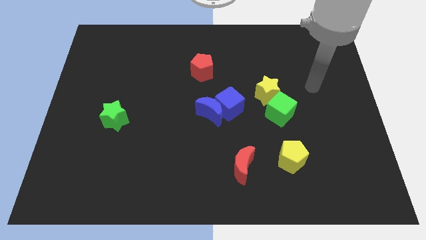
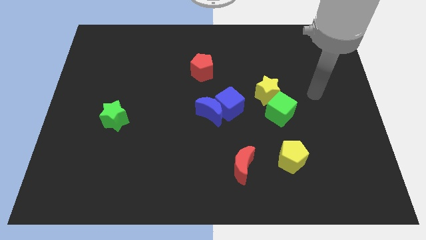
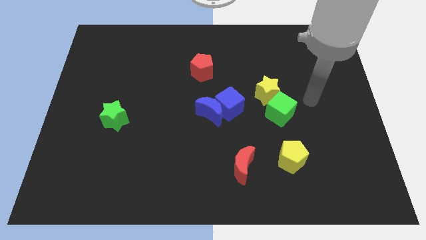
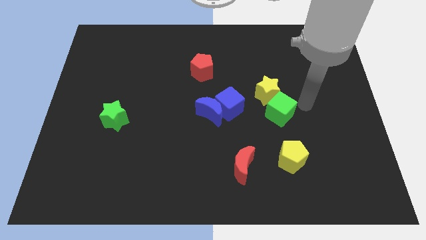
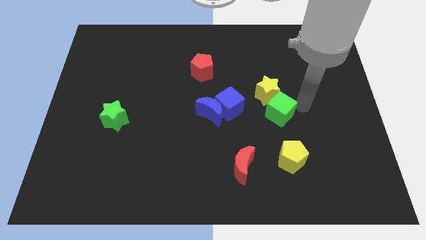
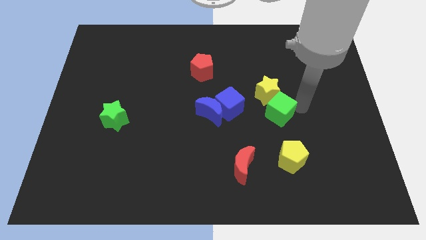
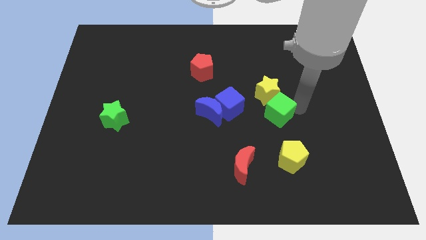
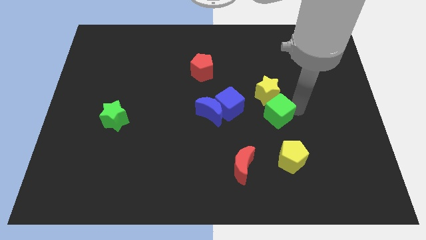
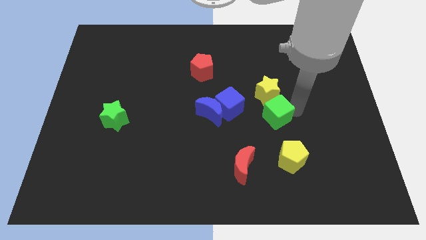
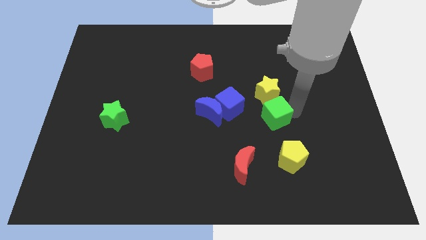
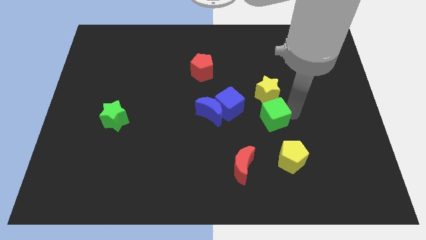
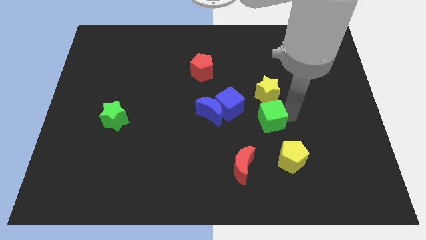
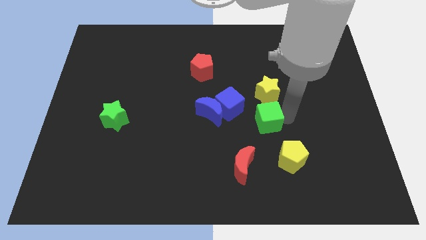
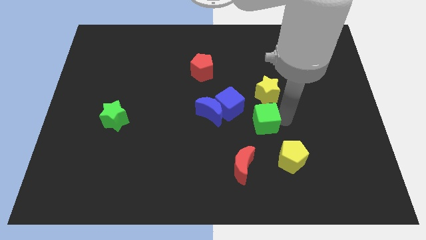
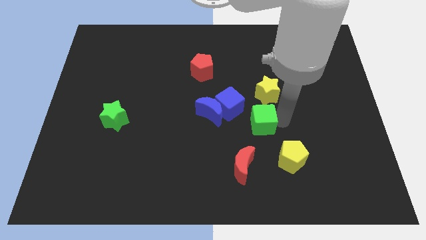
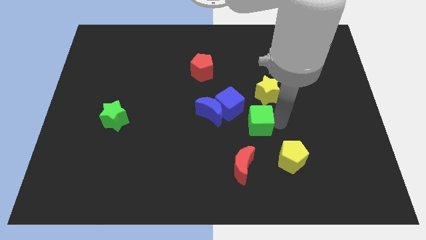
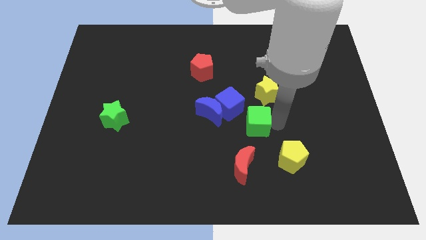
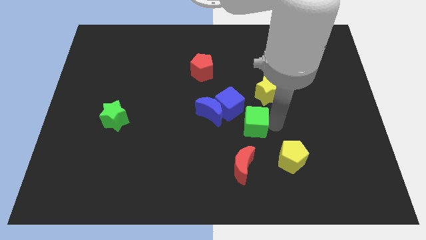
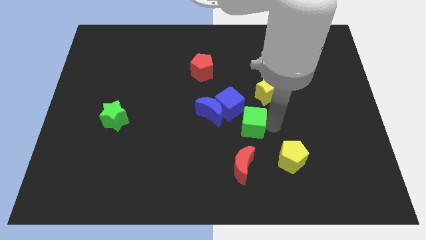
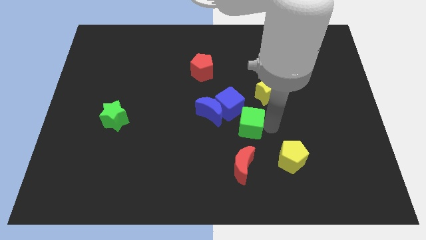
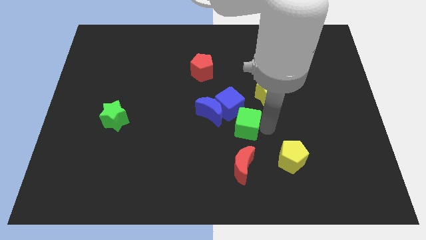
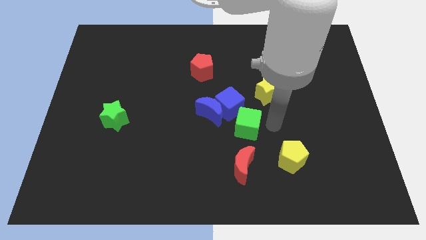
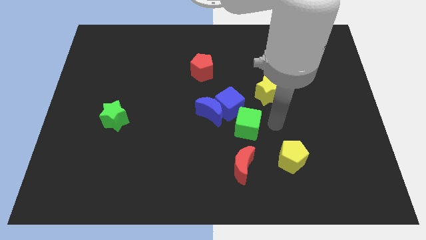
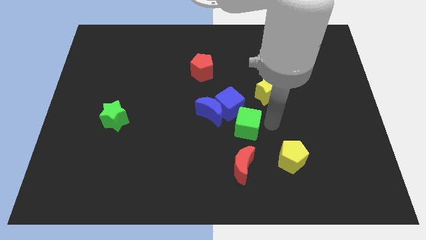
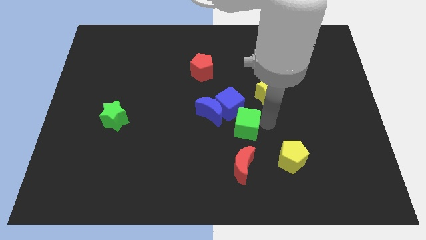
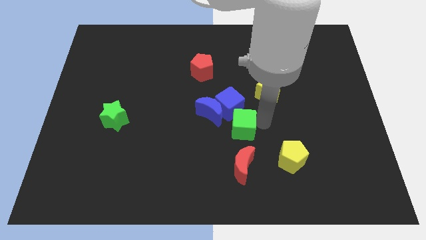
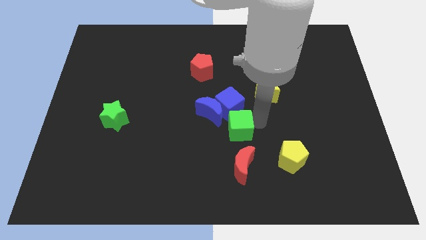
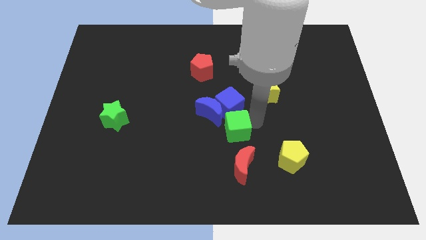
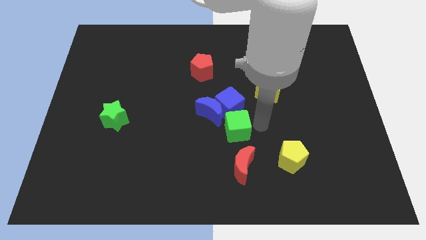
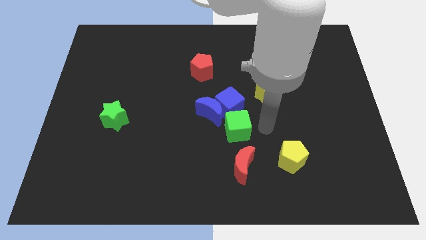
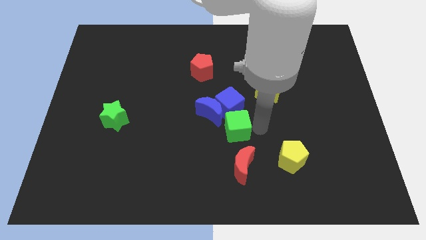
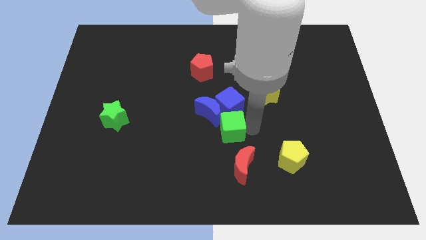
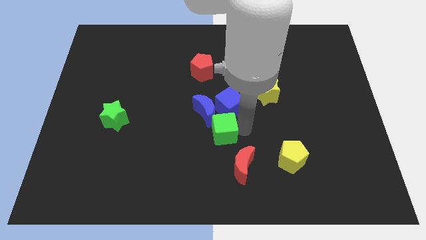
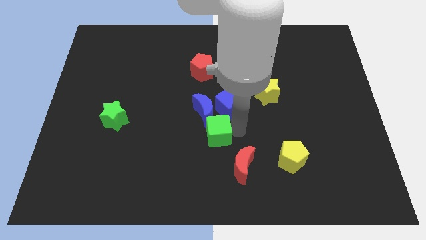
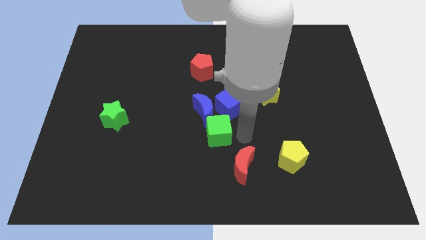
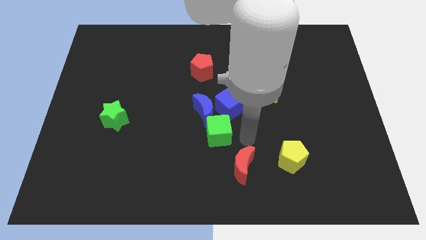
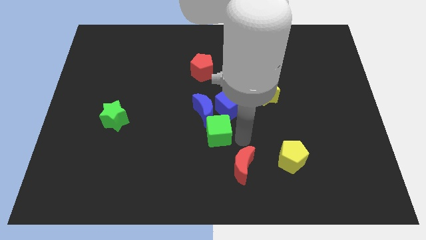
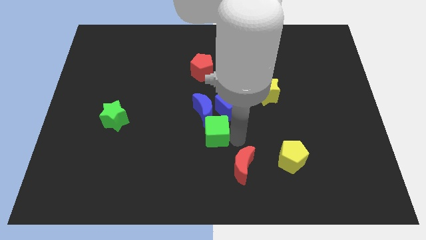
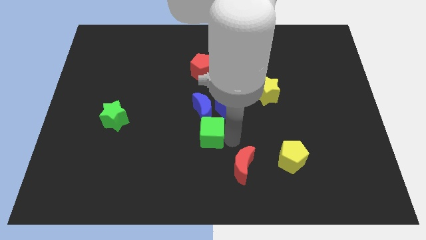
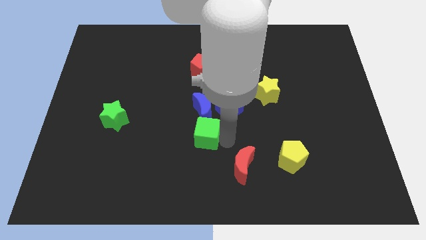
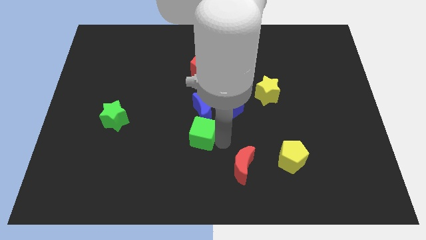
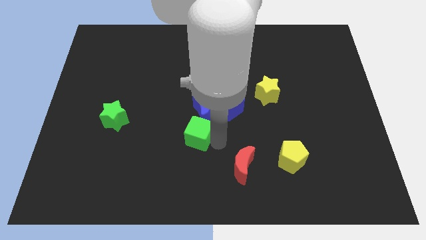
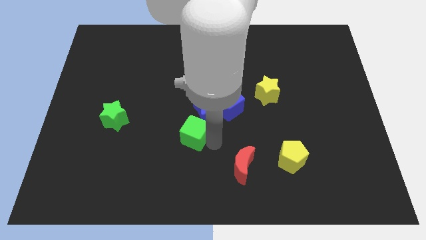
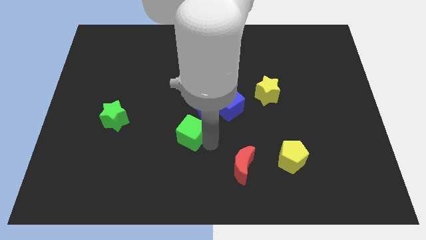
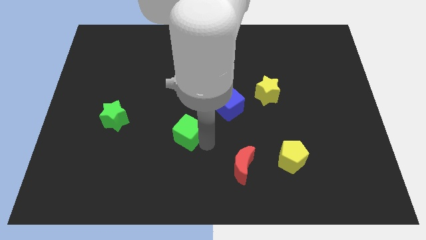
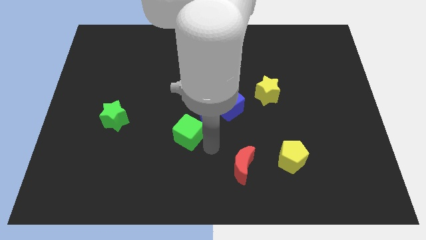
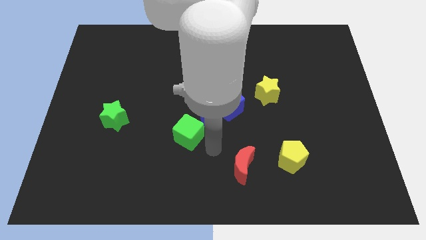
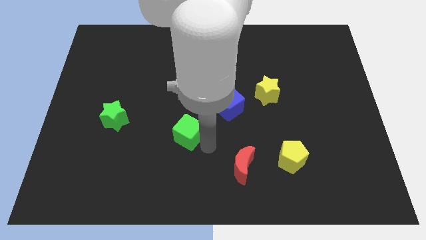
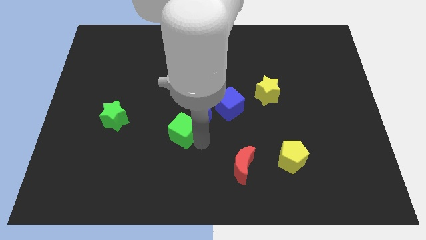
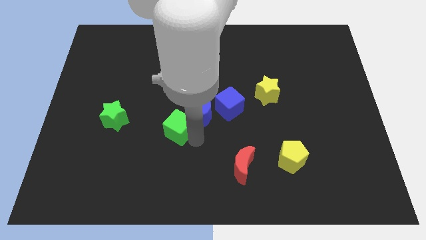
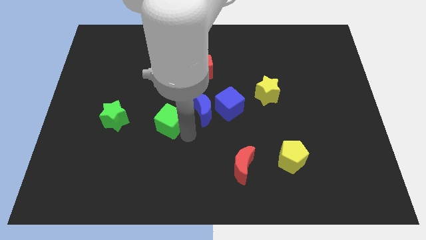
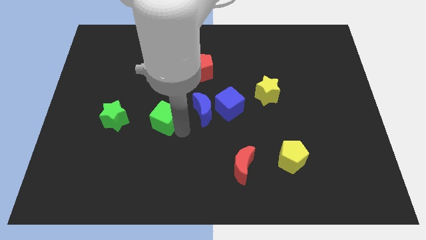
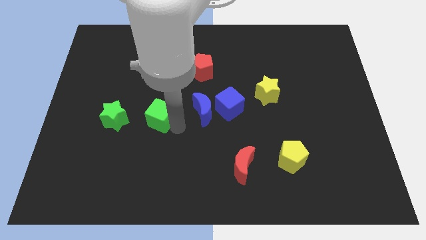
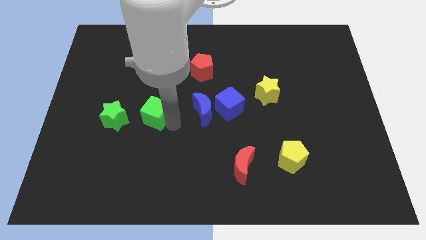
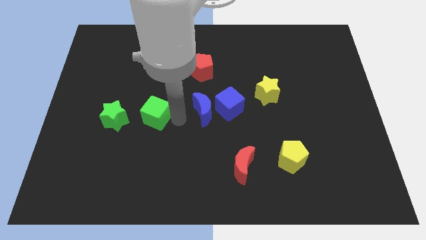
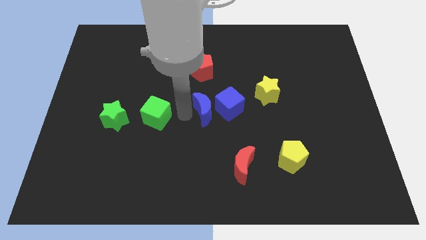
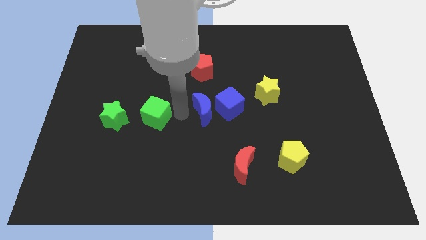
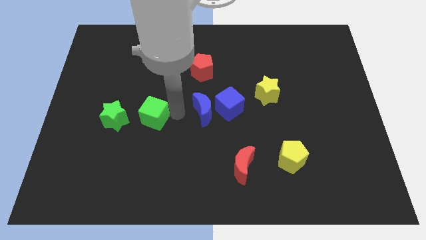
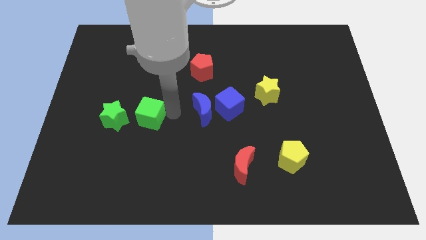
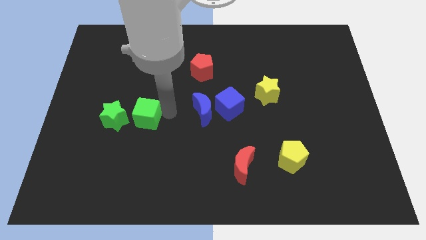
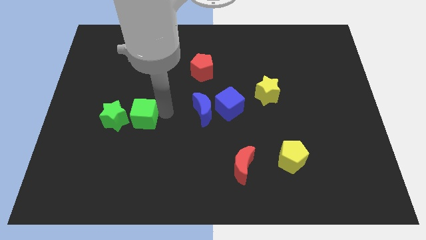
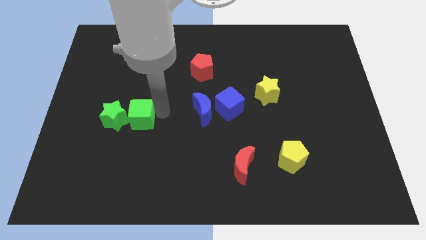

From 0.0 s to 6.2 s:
slide the green cube to the green star

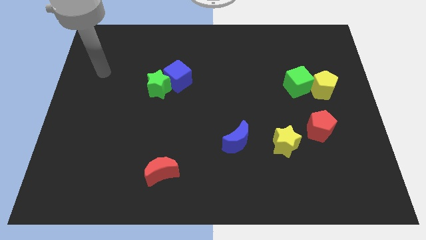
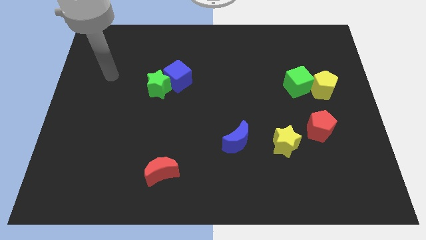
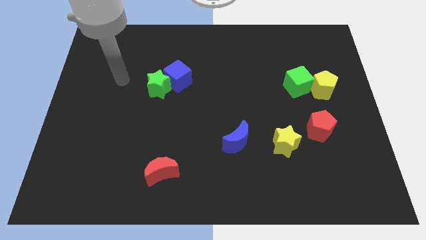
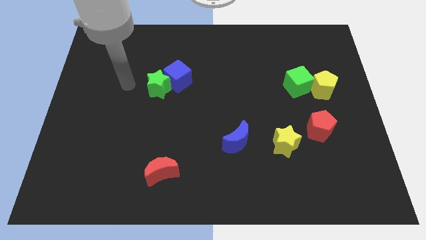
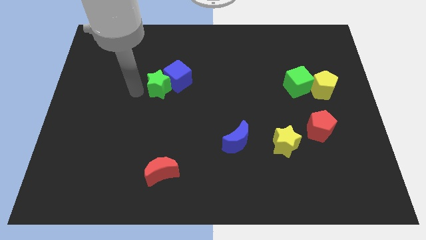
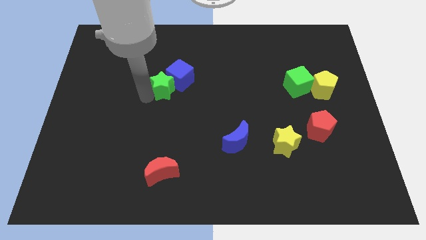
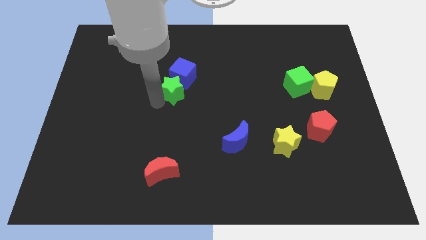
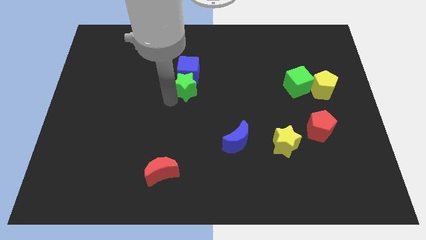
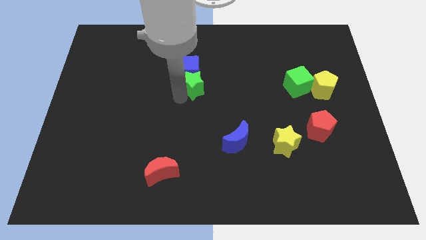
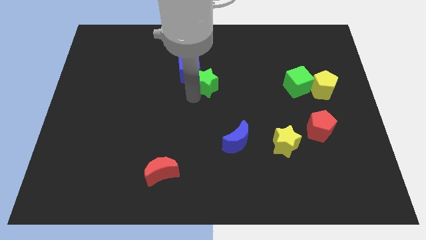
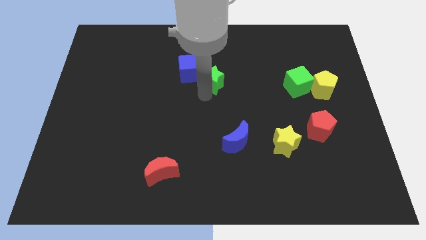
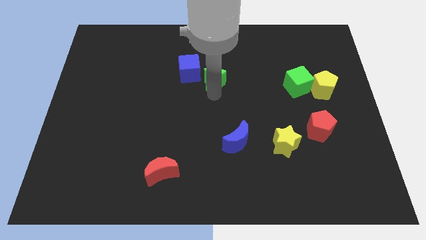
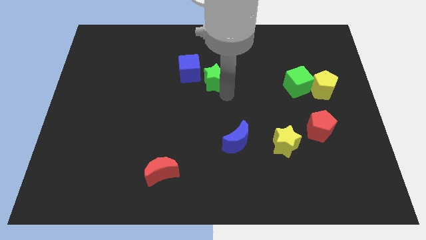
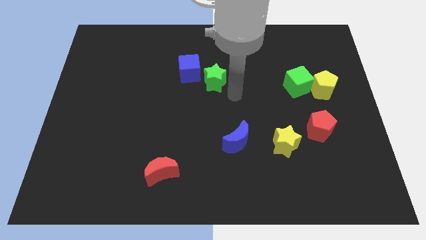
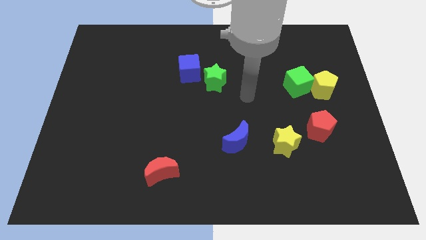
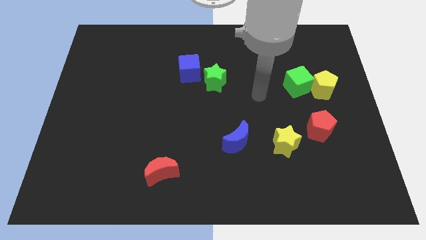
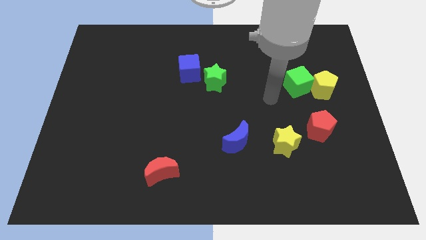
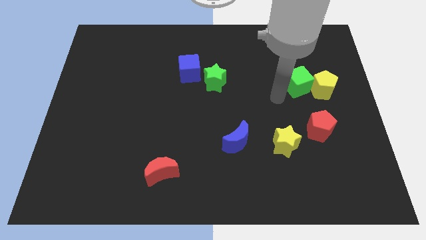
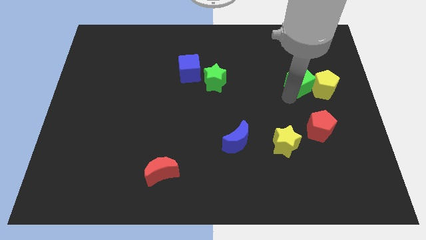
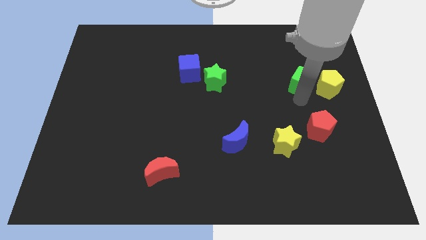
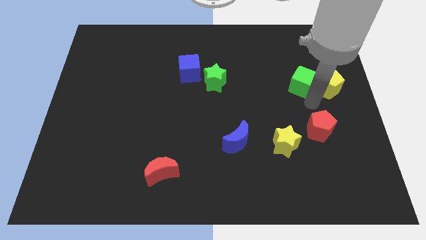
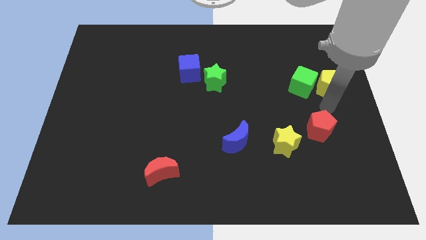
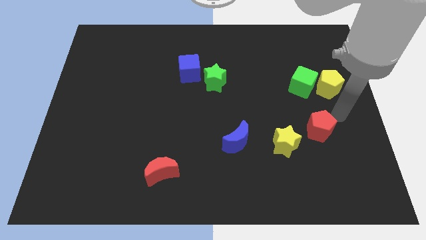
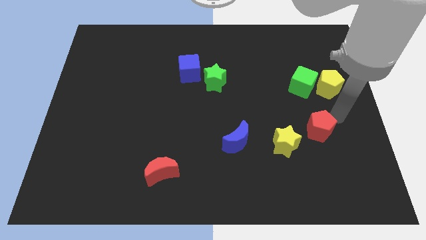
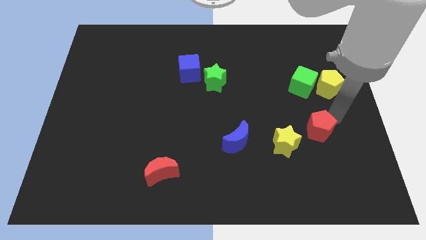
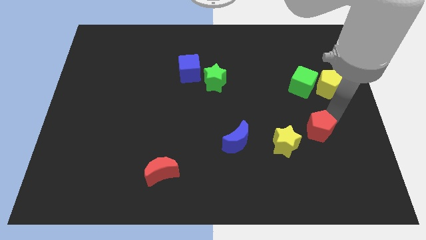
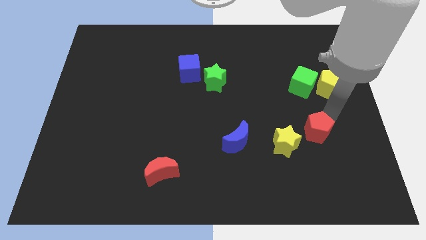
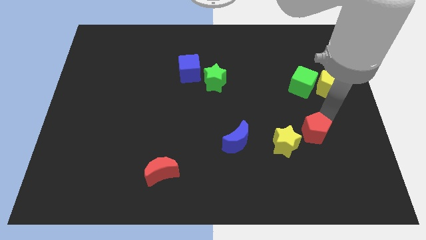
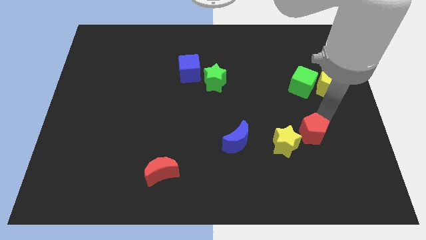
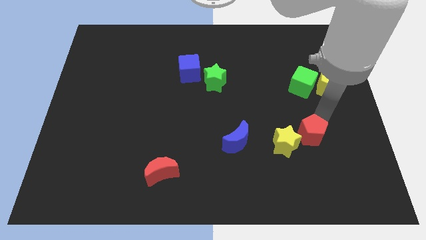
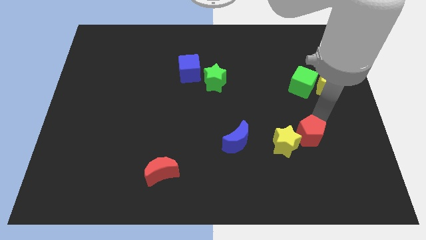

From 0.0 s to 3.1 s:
put the red pentagon next to the yellow star
